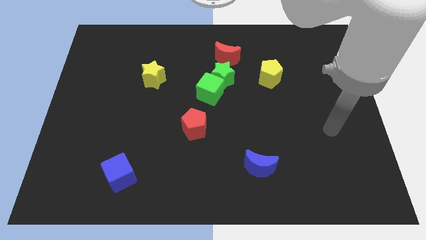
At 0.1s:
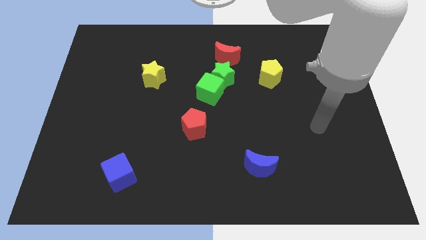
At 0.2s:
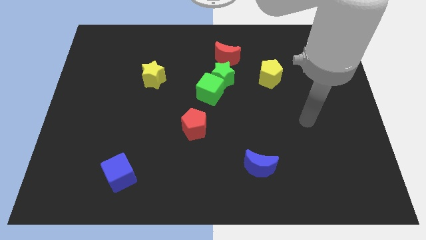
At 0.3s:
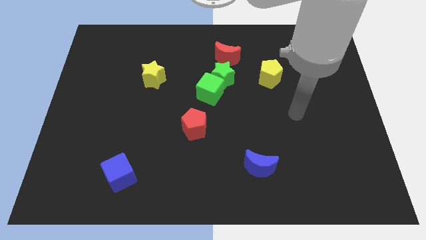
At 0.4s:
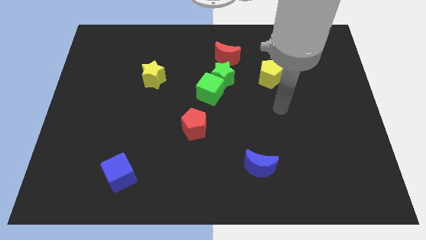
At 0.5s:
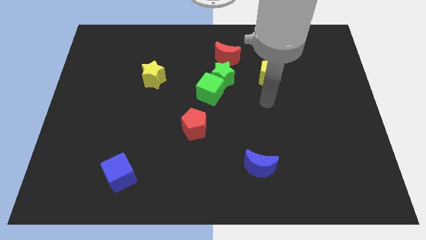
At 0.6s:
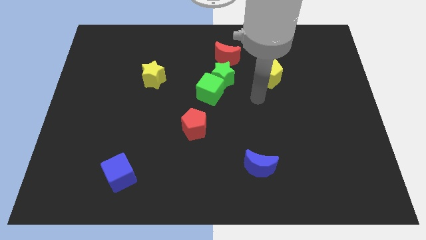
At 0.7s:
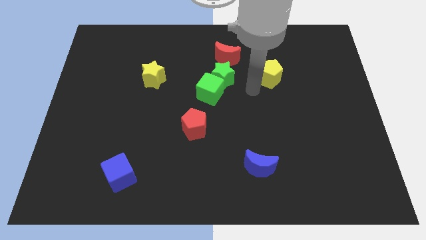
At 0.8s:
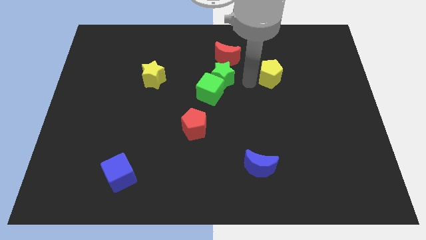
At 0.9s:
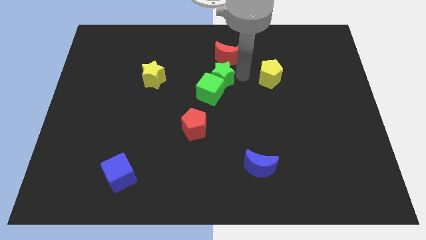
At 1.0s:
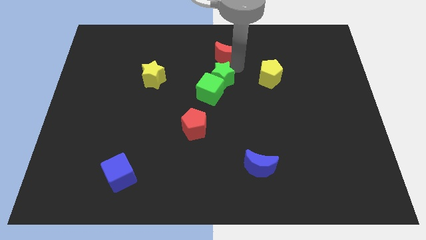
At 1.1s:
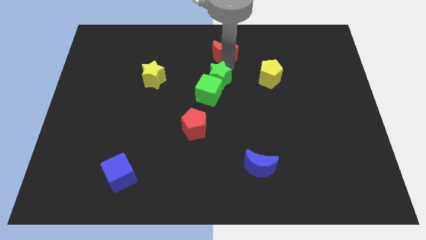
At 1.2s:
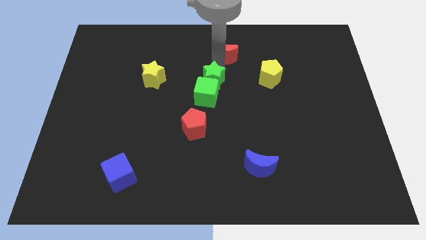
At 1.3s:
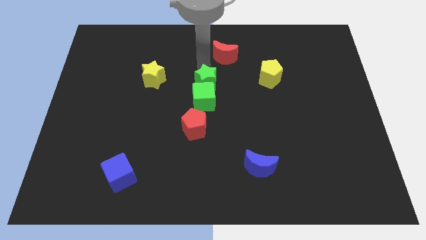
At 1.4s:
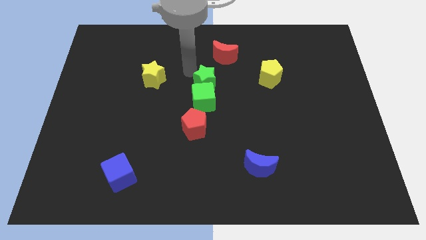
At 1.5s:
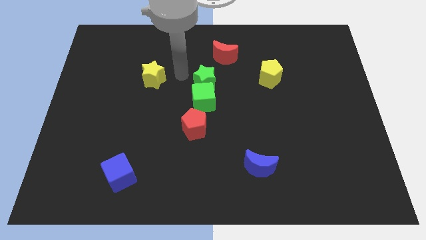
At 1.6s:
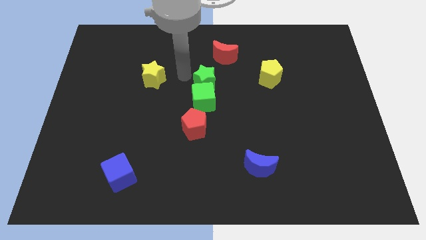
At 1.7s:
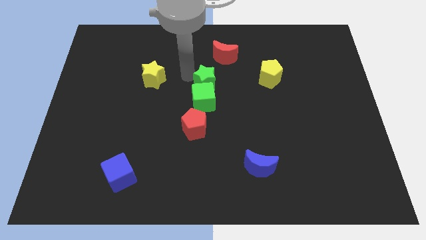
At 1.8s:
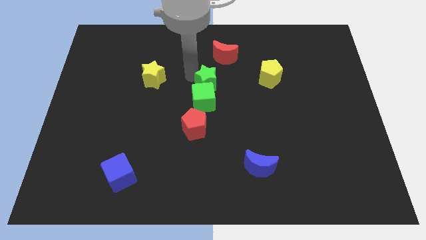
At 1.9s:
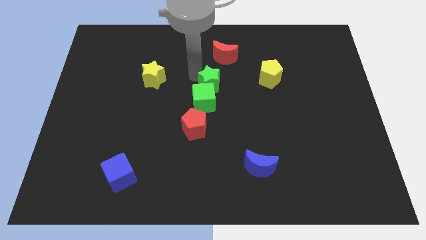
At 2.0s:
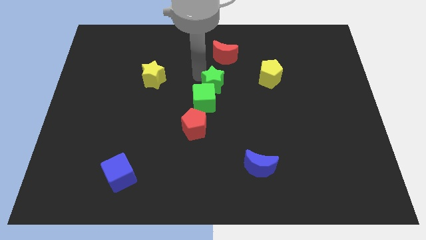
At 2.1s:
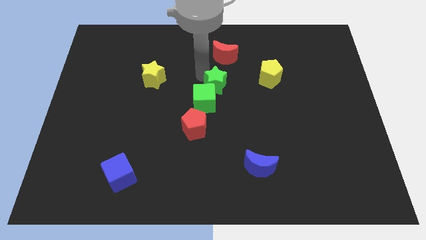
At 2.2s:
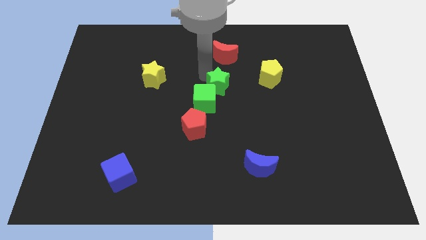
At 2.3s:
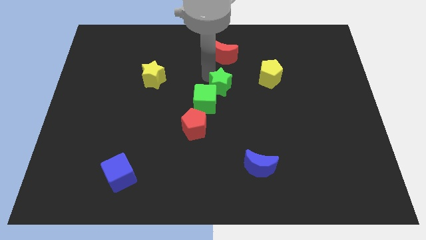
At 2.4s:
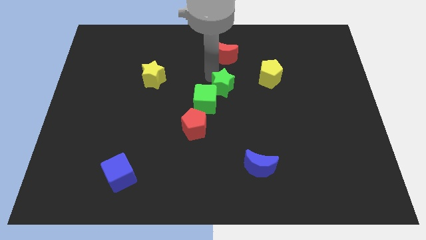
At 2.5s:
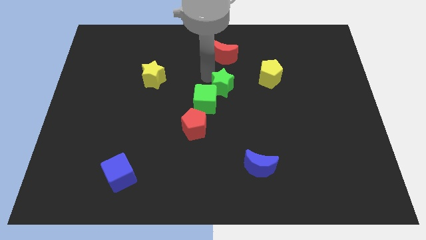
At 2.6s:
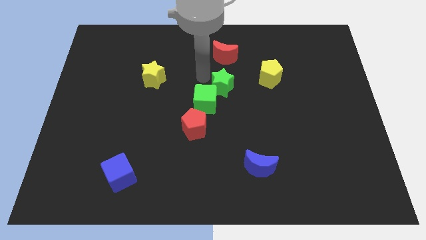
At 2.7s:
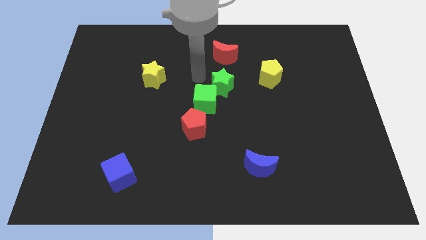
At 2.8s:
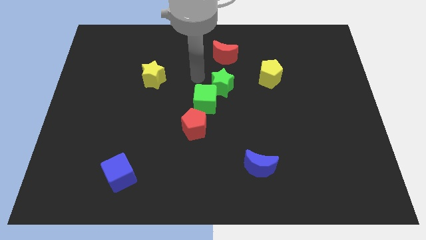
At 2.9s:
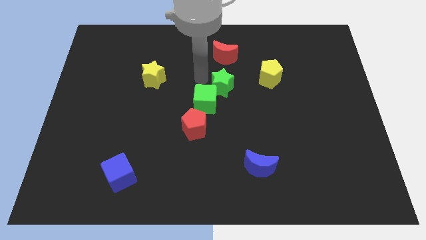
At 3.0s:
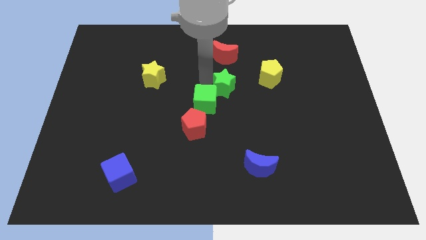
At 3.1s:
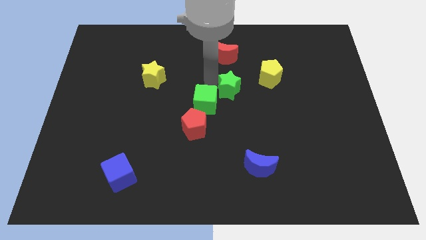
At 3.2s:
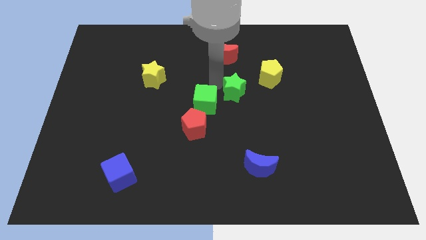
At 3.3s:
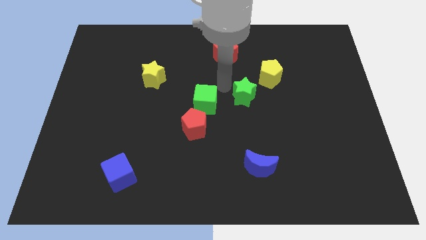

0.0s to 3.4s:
slide the green star slightly down and to the right

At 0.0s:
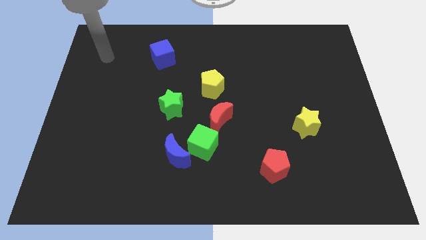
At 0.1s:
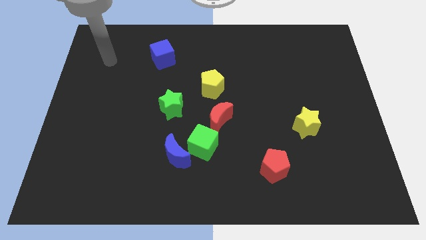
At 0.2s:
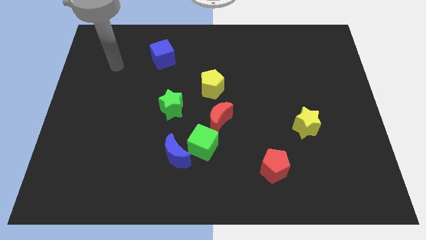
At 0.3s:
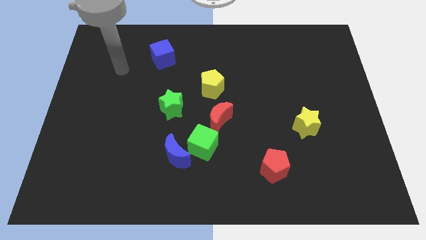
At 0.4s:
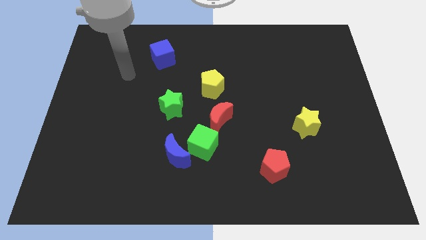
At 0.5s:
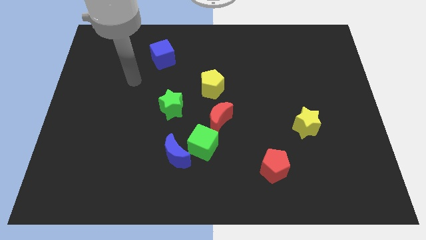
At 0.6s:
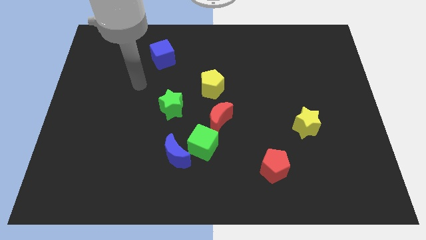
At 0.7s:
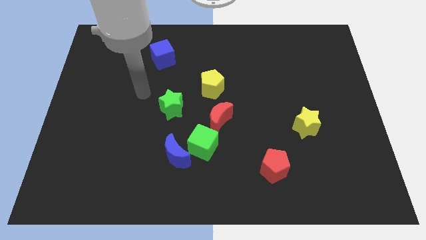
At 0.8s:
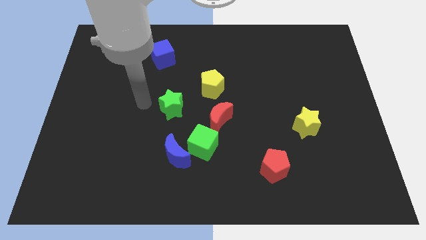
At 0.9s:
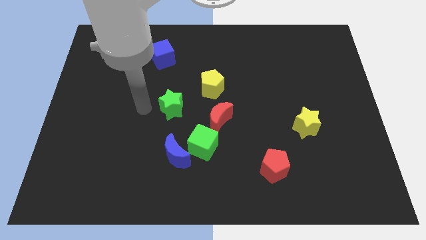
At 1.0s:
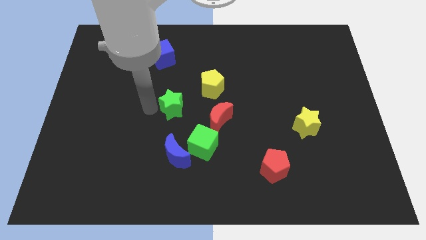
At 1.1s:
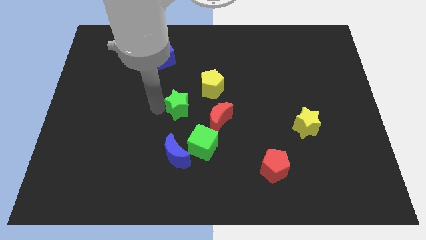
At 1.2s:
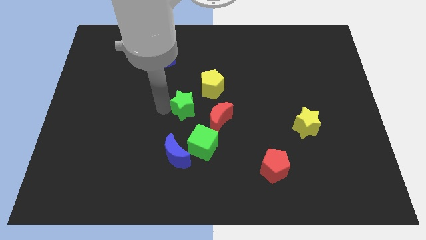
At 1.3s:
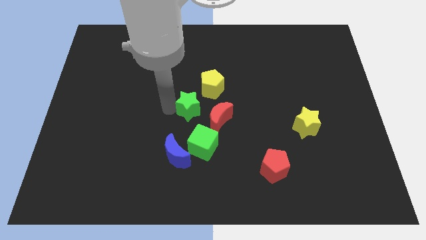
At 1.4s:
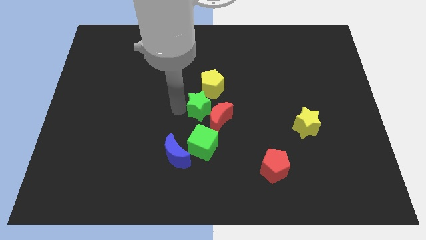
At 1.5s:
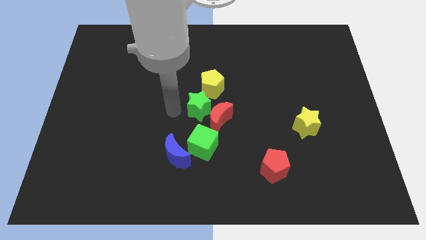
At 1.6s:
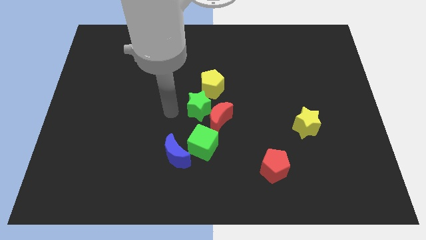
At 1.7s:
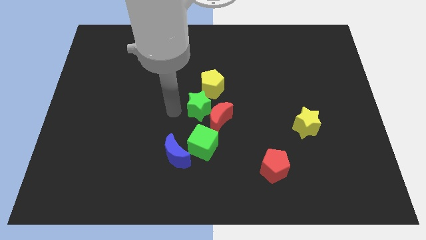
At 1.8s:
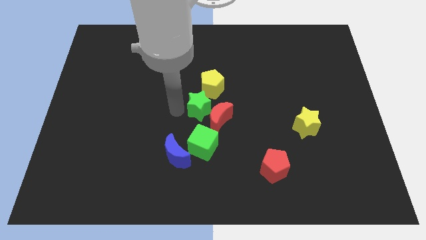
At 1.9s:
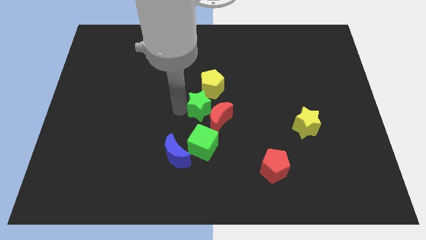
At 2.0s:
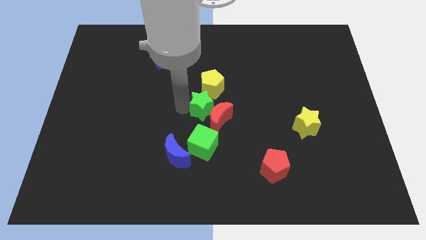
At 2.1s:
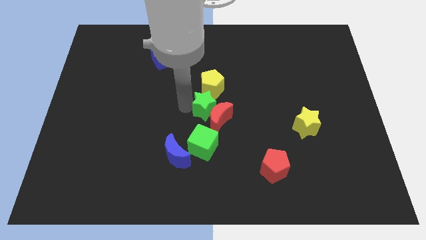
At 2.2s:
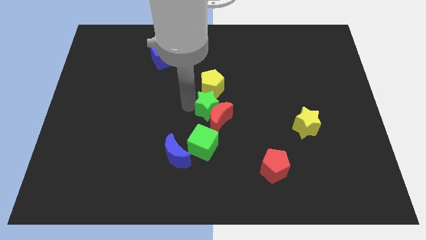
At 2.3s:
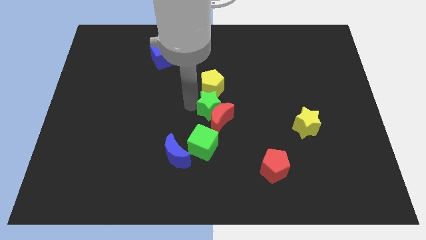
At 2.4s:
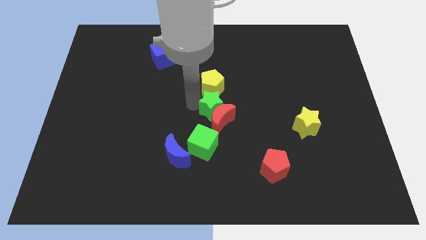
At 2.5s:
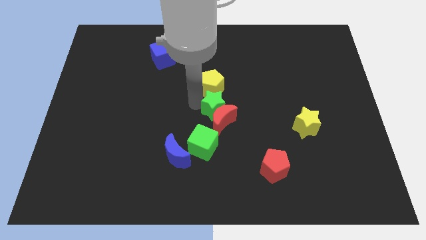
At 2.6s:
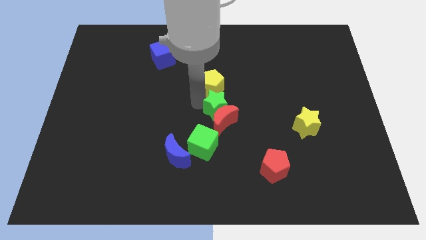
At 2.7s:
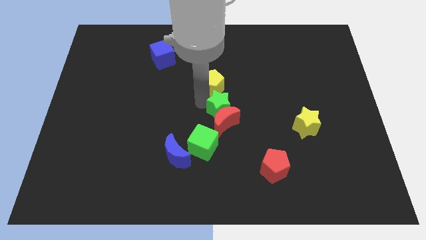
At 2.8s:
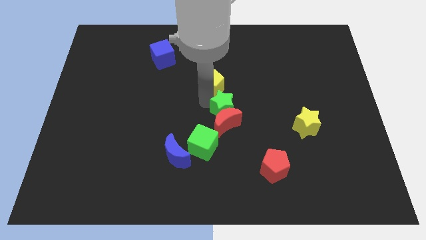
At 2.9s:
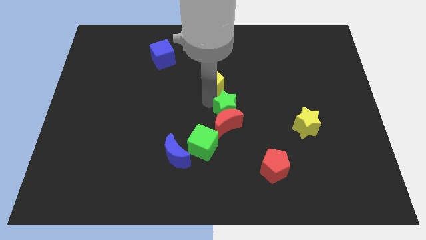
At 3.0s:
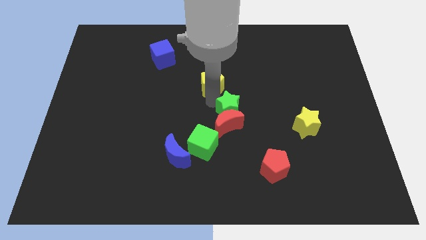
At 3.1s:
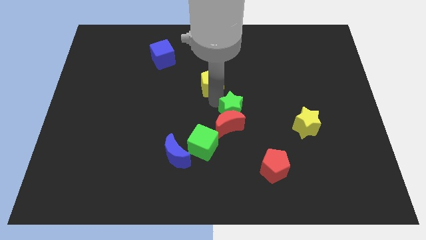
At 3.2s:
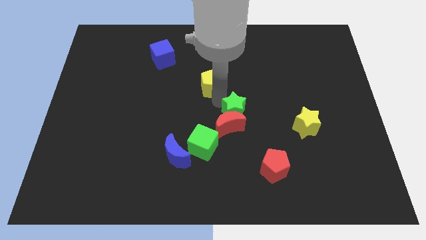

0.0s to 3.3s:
slightly move the green star diagonally down and right

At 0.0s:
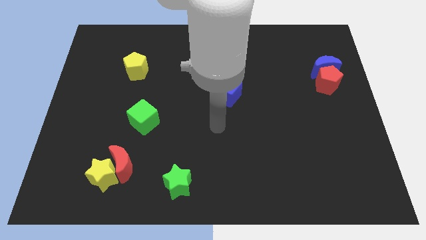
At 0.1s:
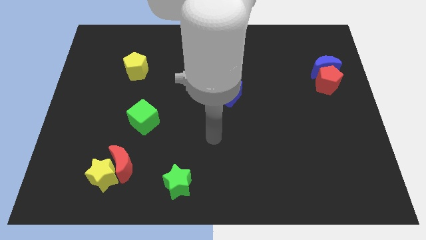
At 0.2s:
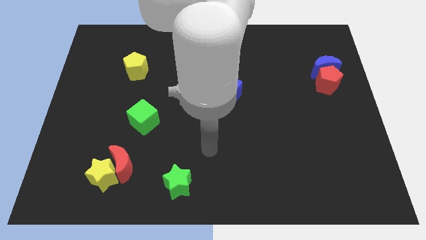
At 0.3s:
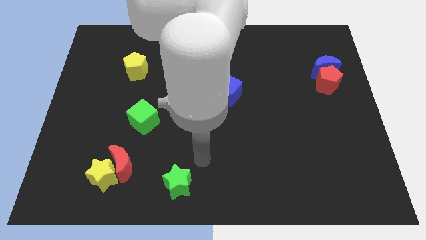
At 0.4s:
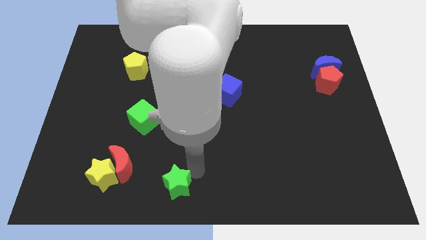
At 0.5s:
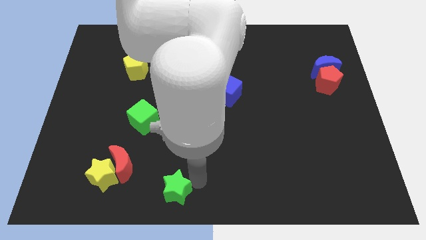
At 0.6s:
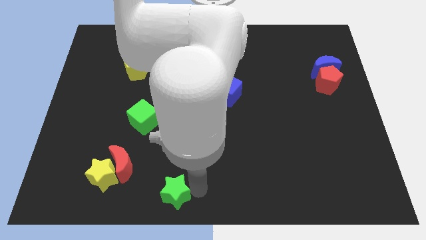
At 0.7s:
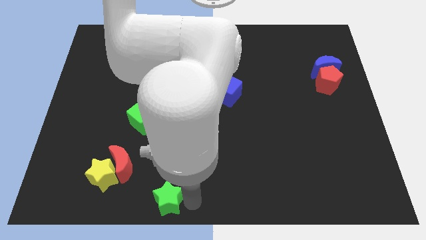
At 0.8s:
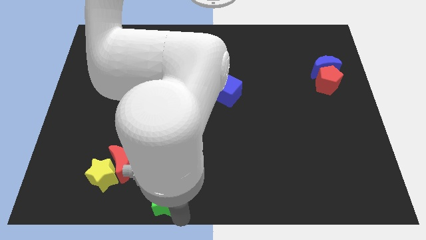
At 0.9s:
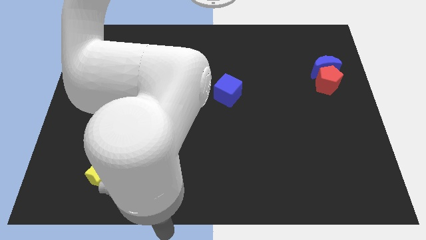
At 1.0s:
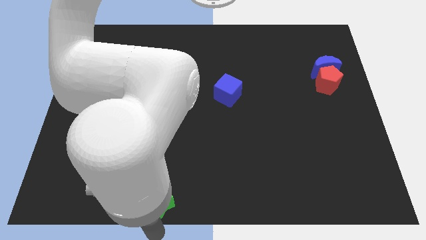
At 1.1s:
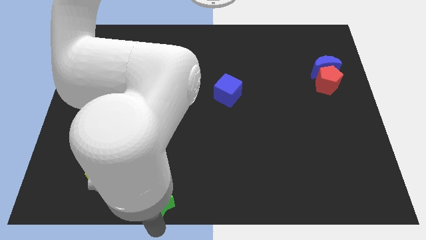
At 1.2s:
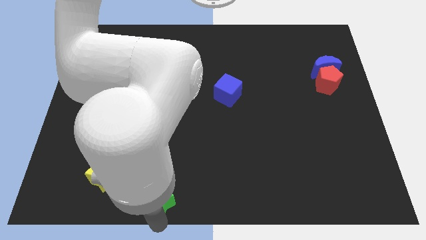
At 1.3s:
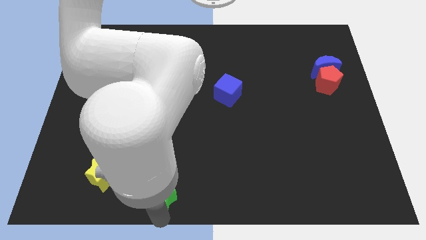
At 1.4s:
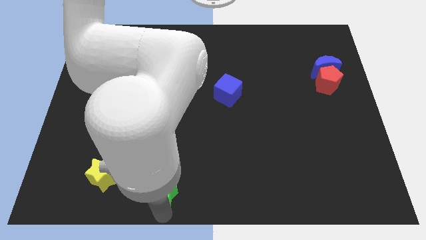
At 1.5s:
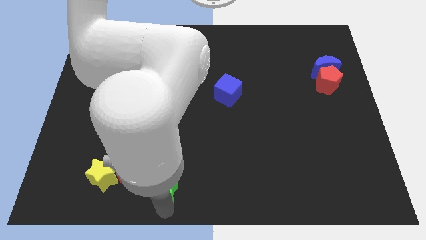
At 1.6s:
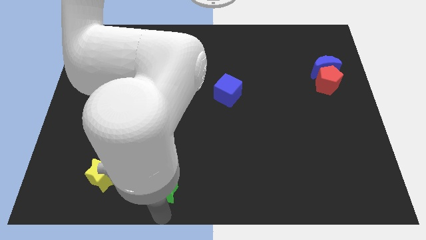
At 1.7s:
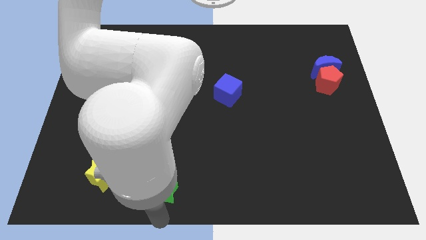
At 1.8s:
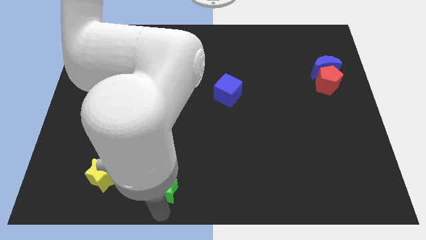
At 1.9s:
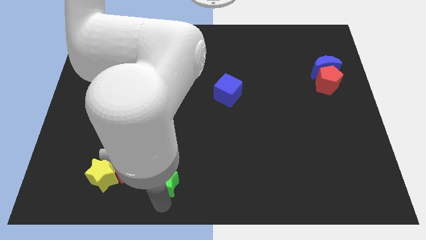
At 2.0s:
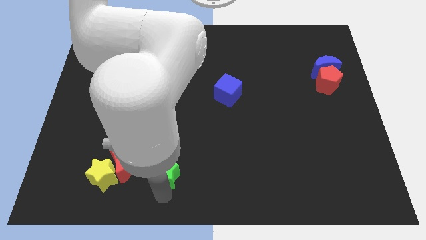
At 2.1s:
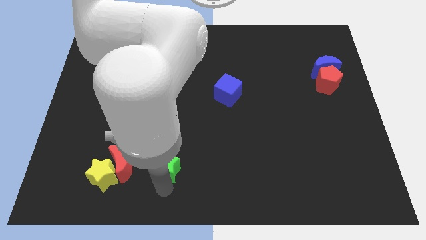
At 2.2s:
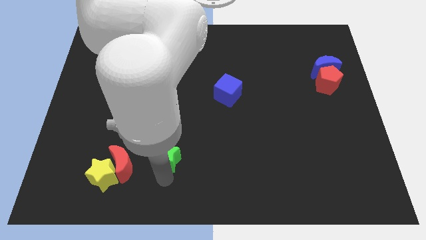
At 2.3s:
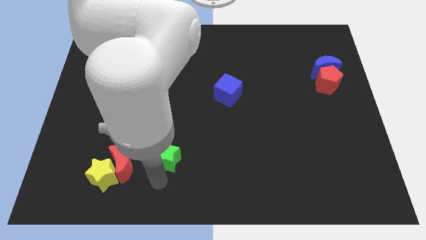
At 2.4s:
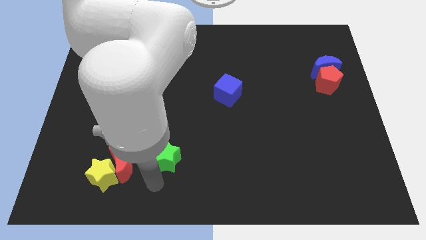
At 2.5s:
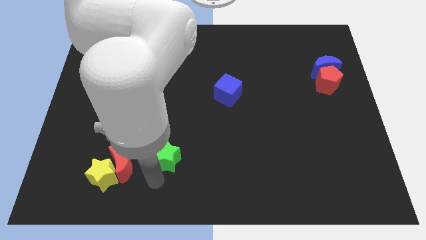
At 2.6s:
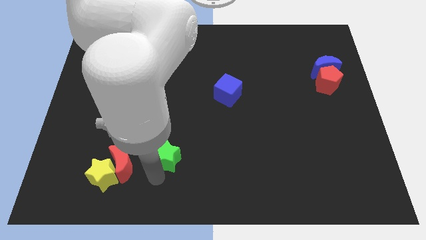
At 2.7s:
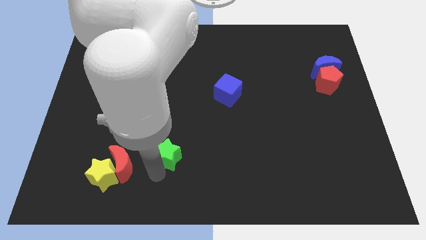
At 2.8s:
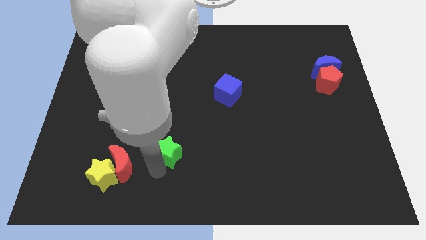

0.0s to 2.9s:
move the green star a bit up
